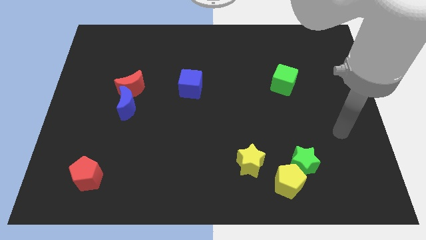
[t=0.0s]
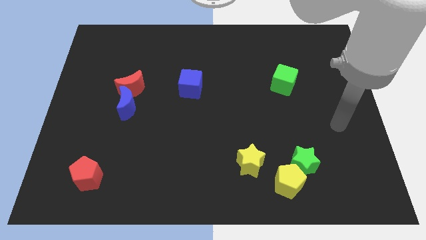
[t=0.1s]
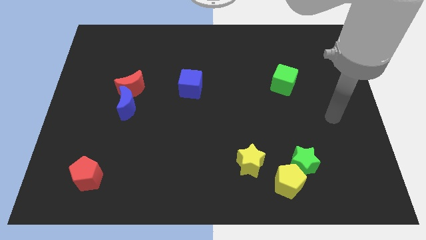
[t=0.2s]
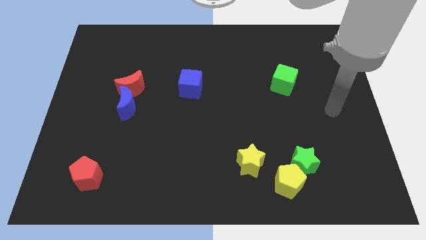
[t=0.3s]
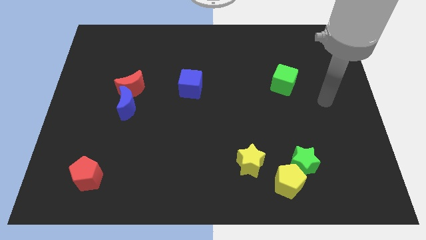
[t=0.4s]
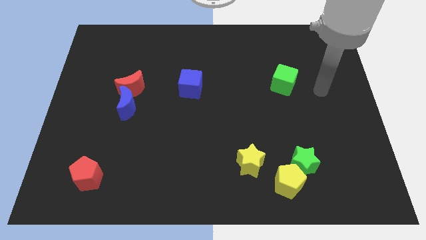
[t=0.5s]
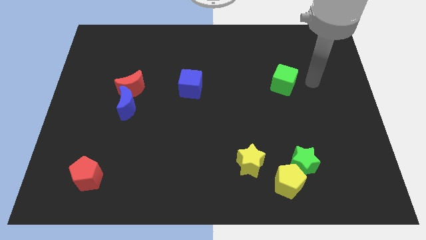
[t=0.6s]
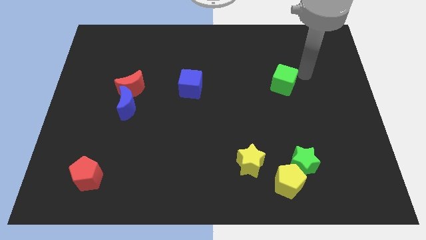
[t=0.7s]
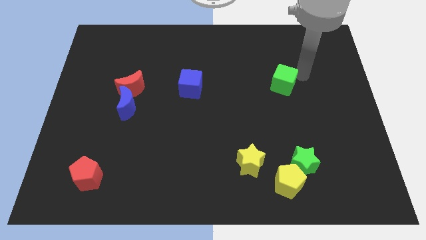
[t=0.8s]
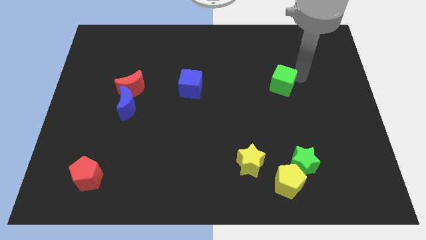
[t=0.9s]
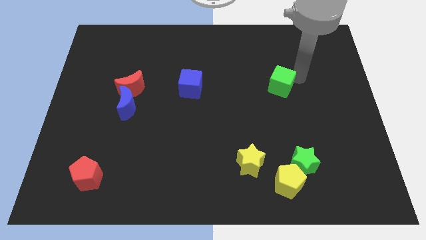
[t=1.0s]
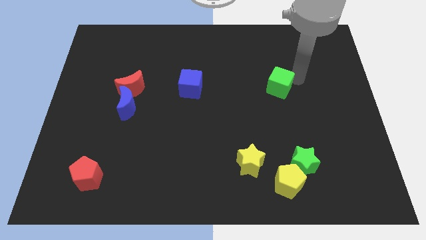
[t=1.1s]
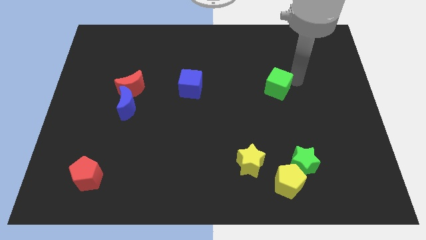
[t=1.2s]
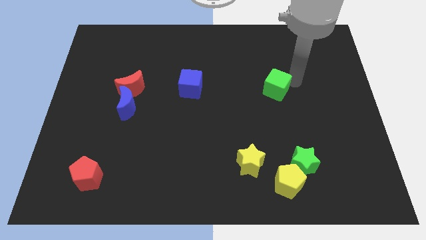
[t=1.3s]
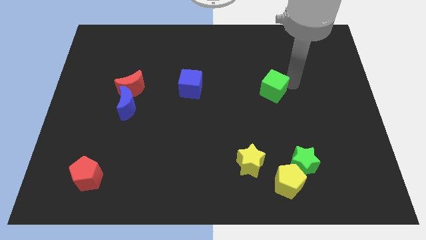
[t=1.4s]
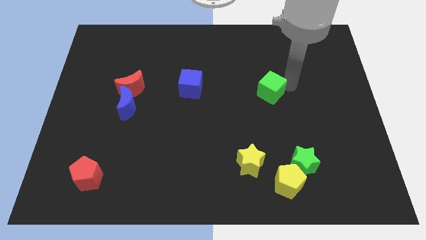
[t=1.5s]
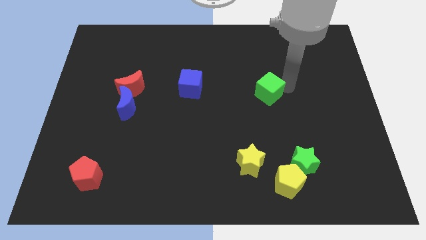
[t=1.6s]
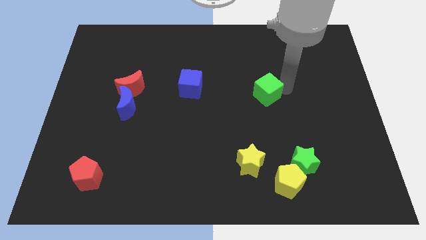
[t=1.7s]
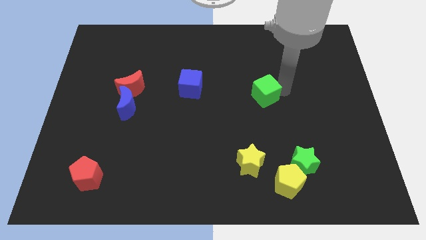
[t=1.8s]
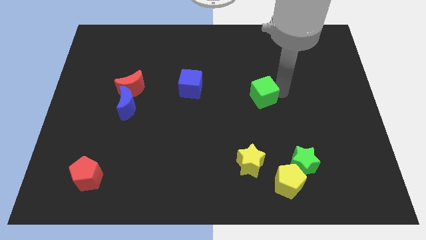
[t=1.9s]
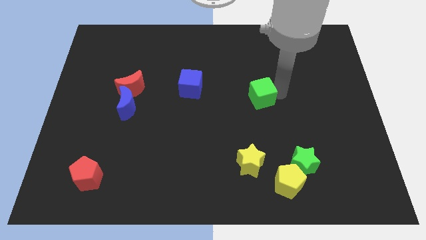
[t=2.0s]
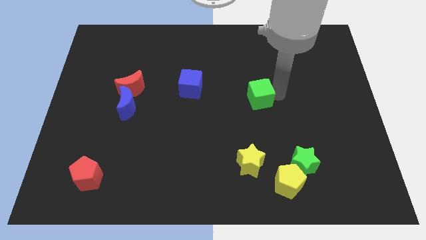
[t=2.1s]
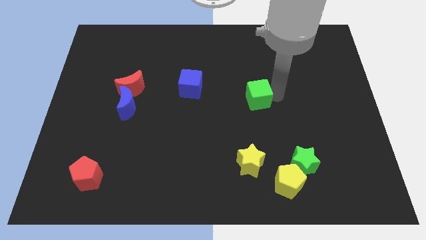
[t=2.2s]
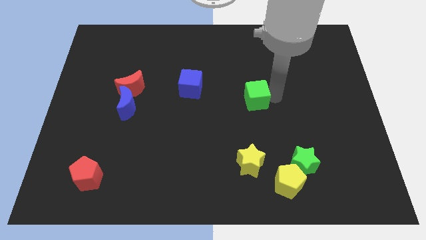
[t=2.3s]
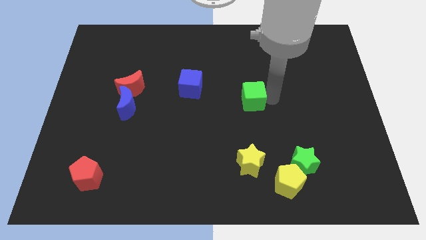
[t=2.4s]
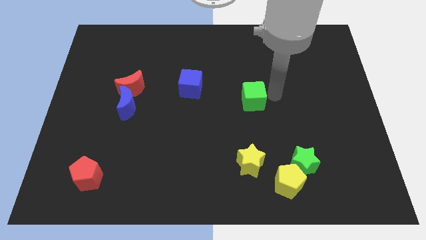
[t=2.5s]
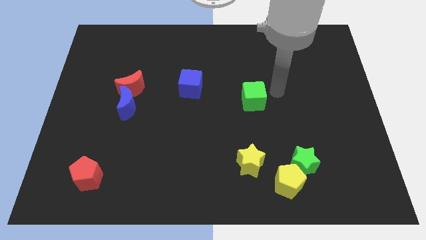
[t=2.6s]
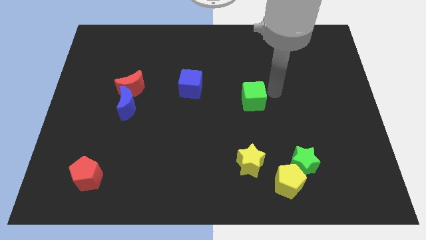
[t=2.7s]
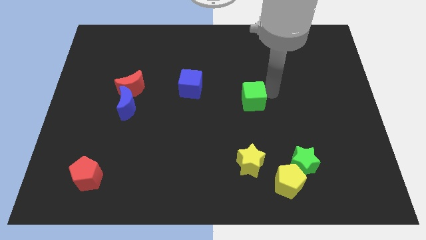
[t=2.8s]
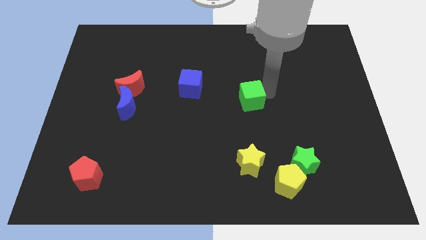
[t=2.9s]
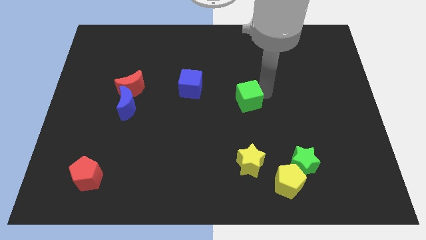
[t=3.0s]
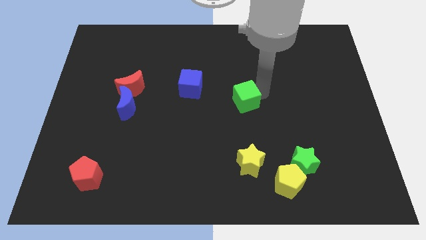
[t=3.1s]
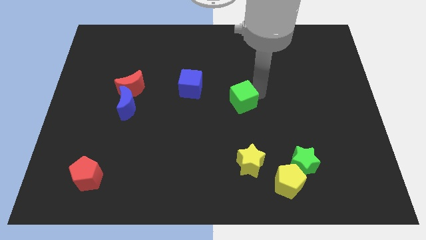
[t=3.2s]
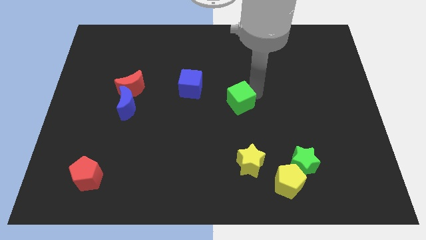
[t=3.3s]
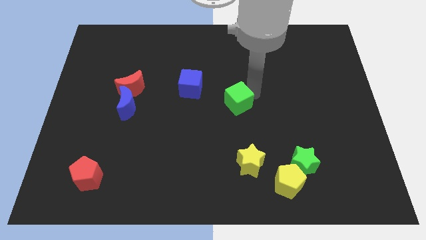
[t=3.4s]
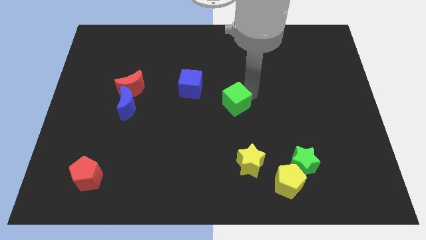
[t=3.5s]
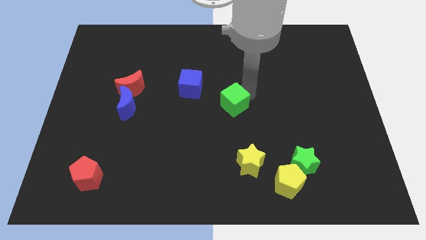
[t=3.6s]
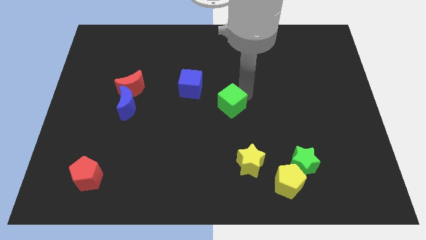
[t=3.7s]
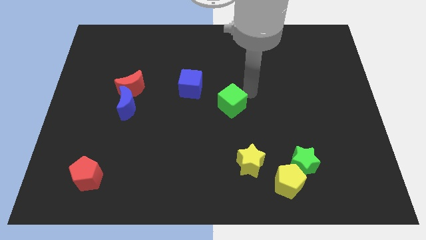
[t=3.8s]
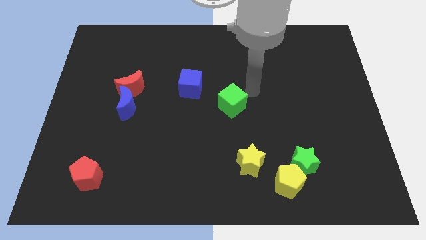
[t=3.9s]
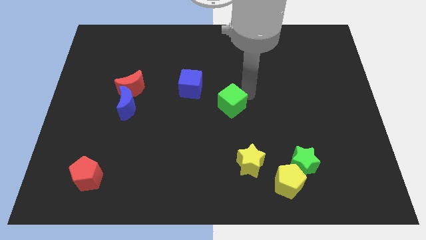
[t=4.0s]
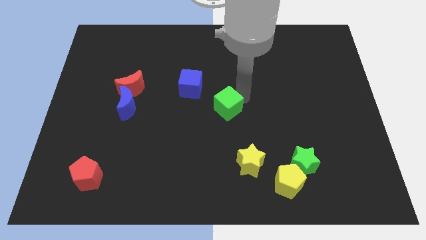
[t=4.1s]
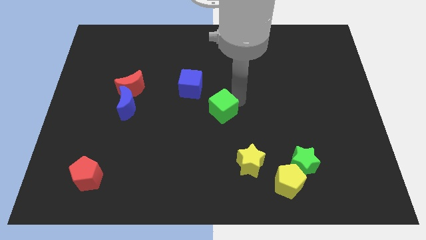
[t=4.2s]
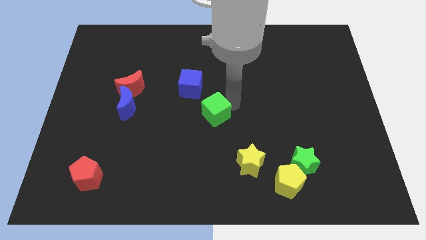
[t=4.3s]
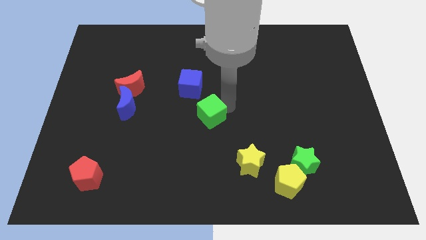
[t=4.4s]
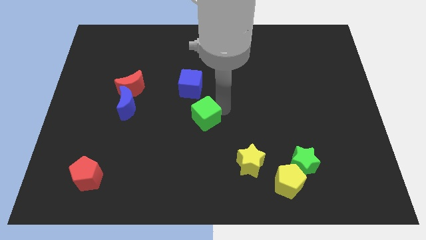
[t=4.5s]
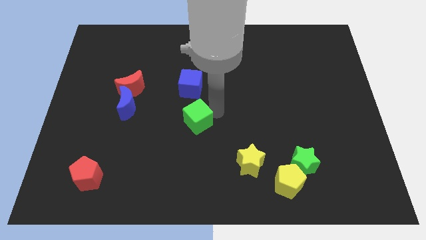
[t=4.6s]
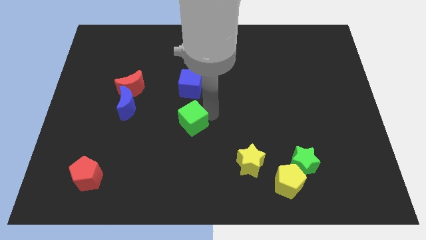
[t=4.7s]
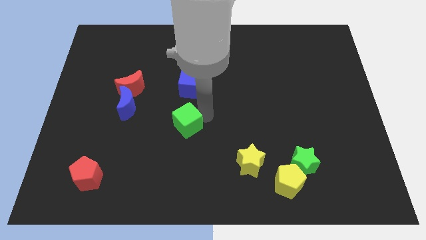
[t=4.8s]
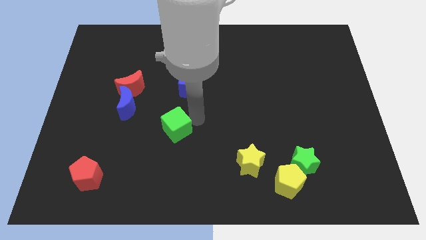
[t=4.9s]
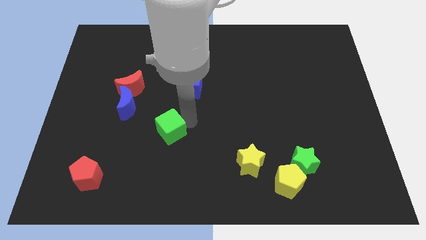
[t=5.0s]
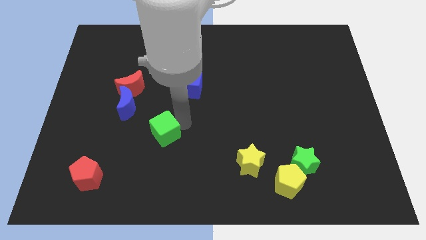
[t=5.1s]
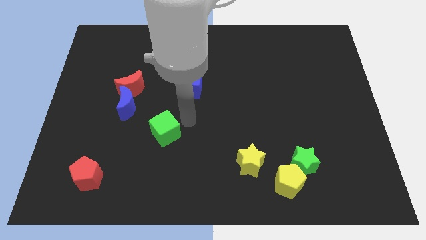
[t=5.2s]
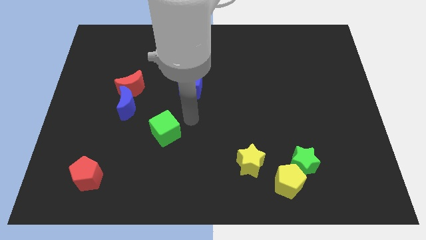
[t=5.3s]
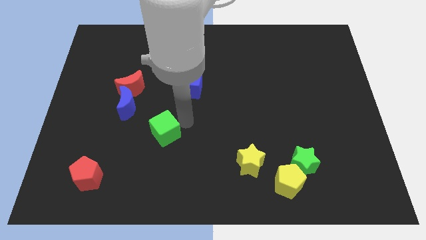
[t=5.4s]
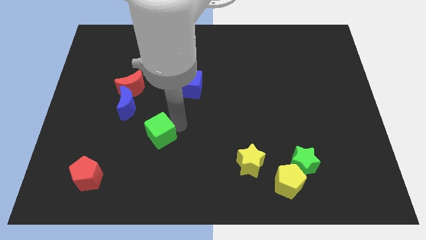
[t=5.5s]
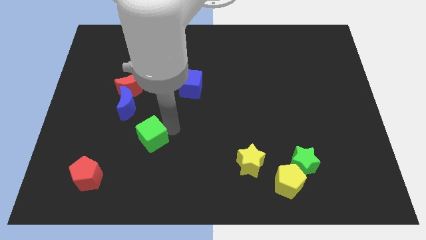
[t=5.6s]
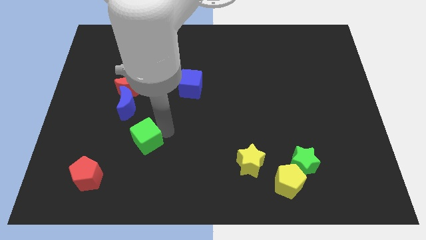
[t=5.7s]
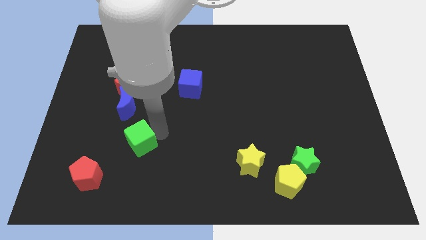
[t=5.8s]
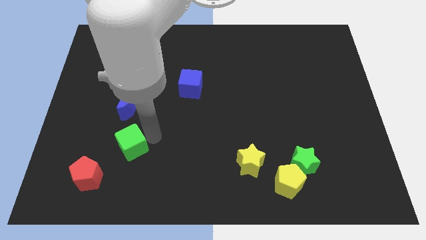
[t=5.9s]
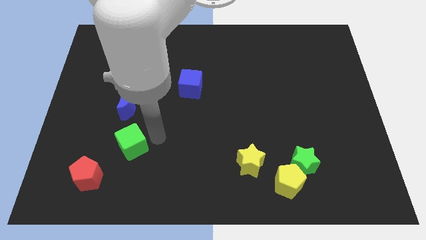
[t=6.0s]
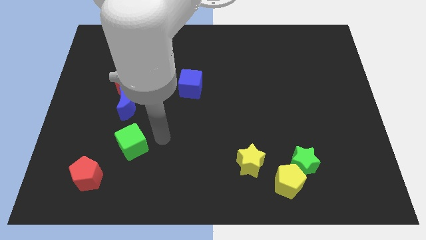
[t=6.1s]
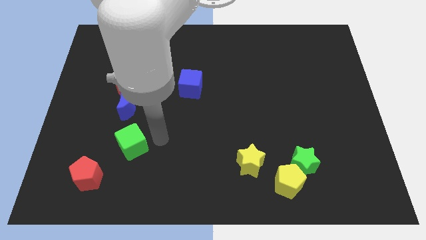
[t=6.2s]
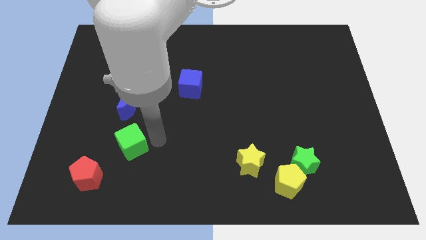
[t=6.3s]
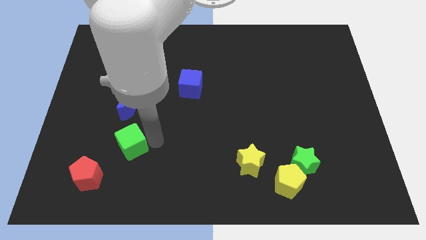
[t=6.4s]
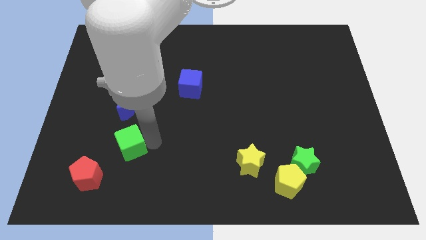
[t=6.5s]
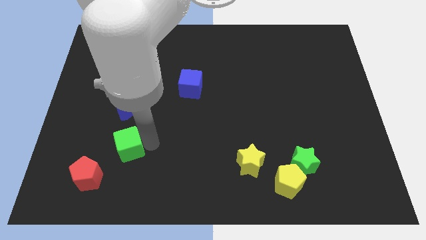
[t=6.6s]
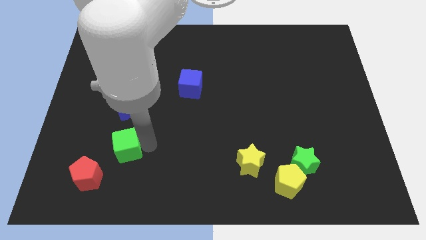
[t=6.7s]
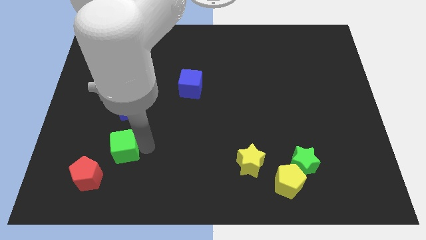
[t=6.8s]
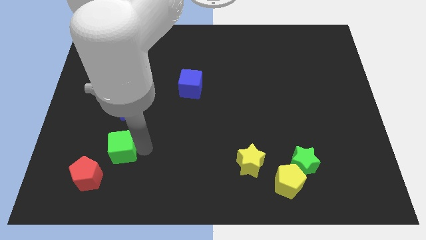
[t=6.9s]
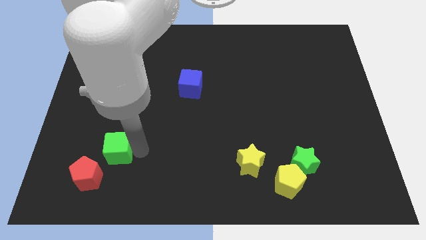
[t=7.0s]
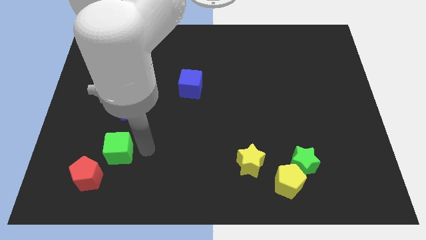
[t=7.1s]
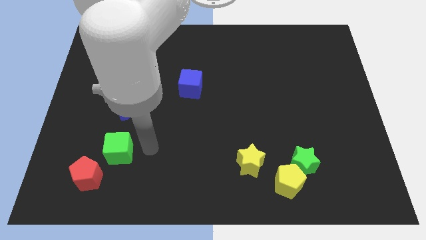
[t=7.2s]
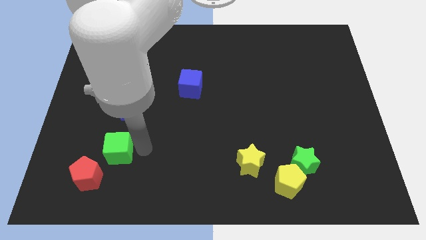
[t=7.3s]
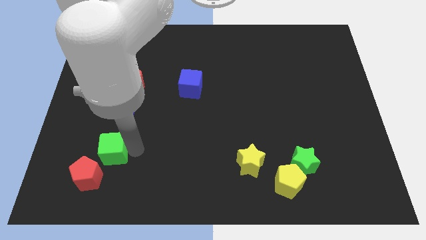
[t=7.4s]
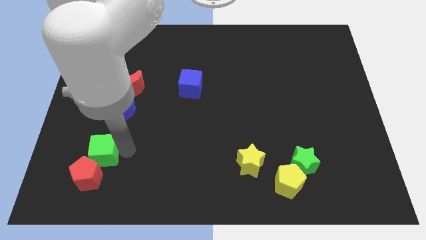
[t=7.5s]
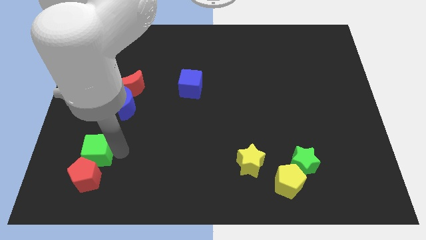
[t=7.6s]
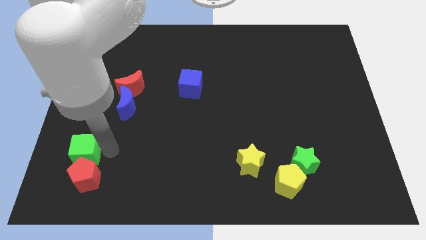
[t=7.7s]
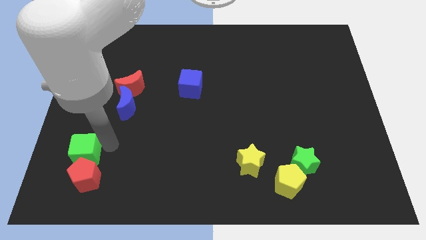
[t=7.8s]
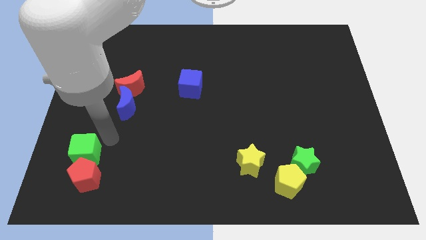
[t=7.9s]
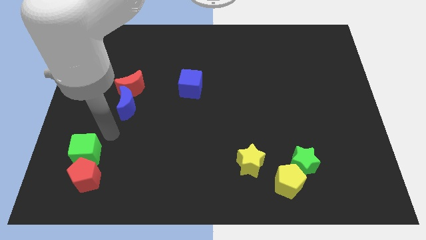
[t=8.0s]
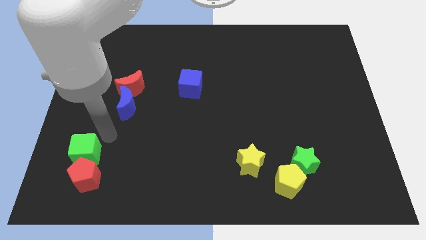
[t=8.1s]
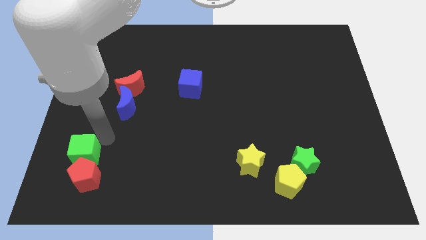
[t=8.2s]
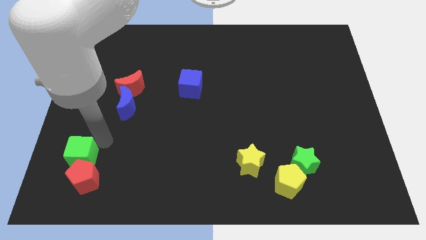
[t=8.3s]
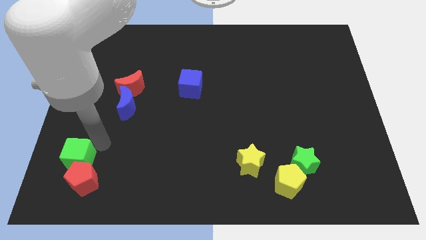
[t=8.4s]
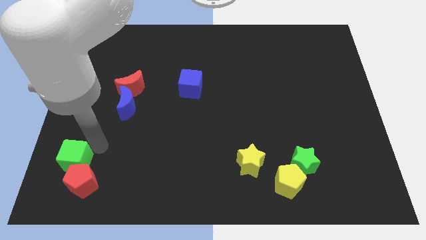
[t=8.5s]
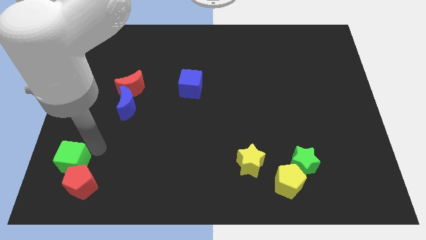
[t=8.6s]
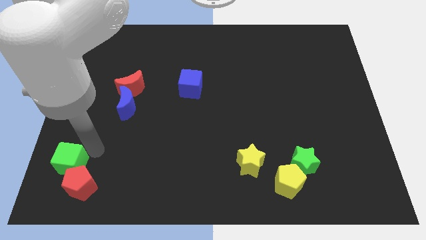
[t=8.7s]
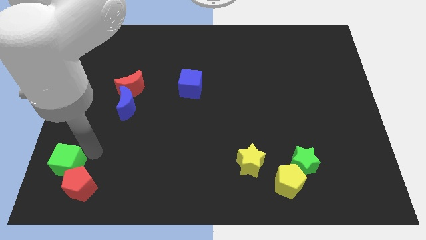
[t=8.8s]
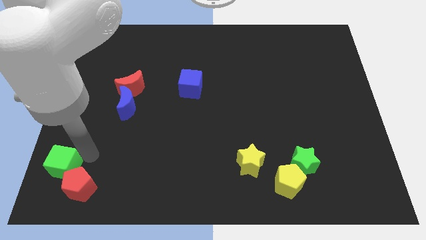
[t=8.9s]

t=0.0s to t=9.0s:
move the green cube to the lower left corner
